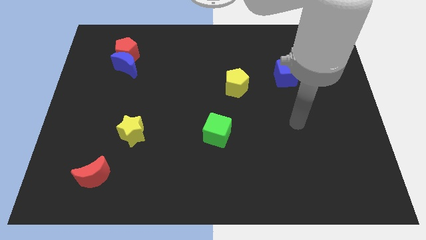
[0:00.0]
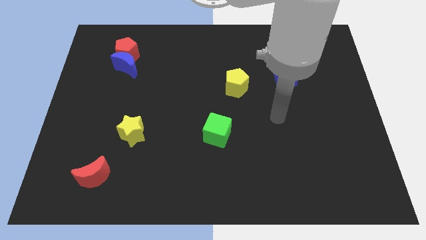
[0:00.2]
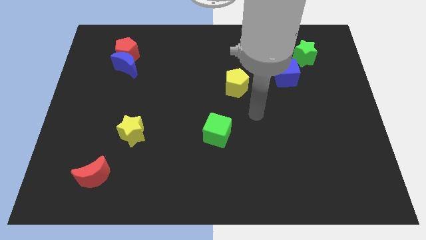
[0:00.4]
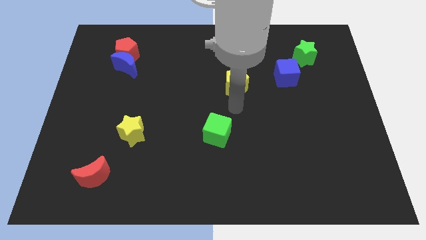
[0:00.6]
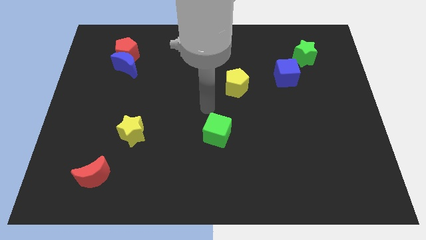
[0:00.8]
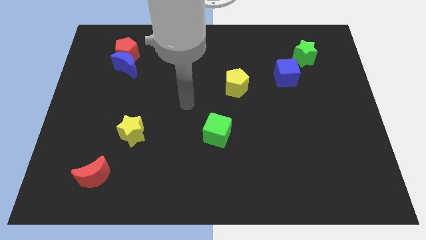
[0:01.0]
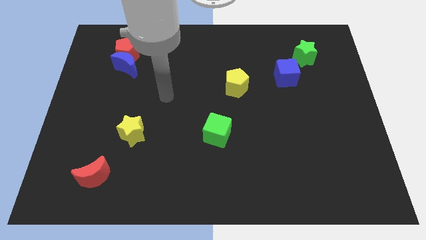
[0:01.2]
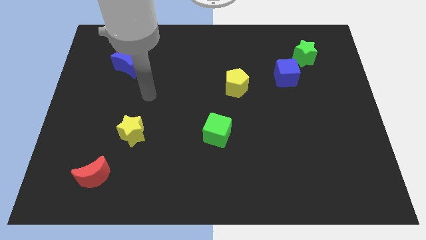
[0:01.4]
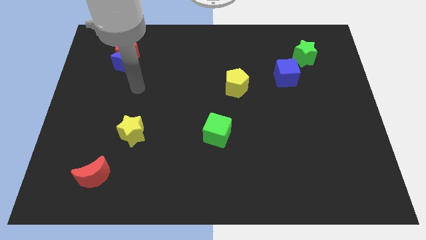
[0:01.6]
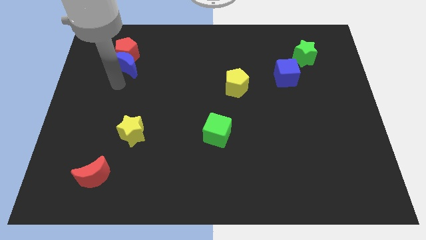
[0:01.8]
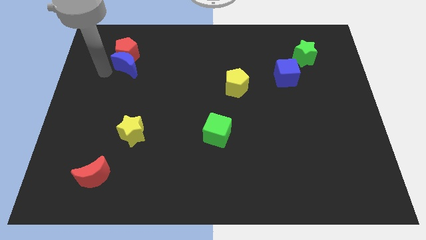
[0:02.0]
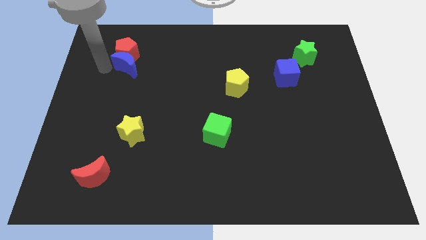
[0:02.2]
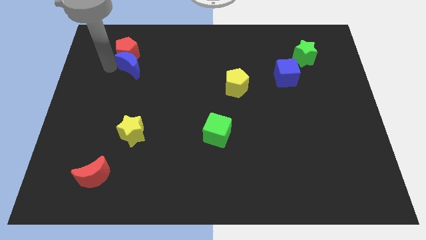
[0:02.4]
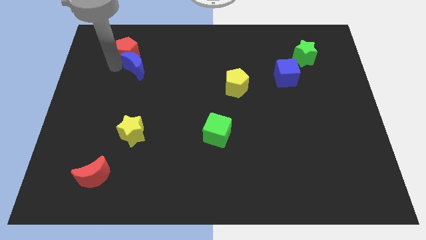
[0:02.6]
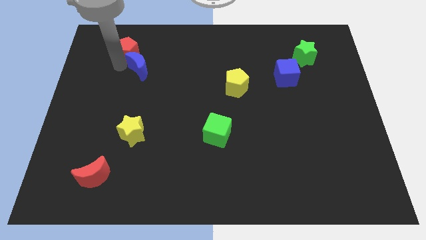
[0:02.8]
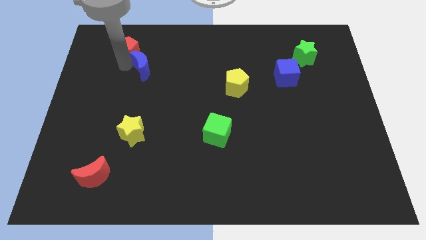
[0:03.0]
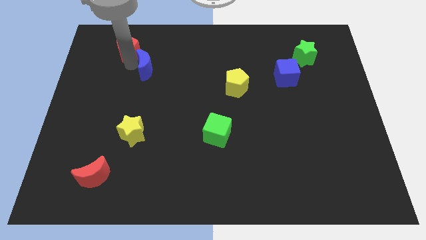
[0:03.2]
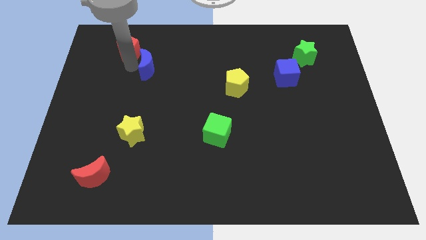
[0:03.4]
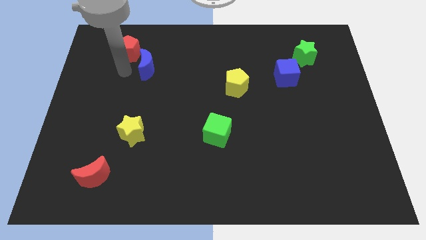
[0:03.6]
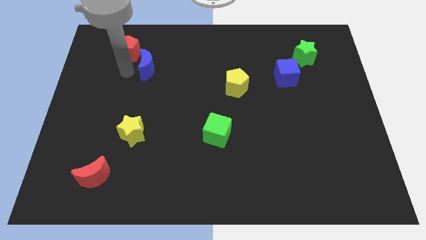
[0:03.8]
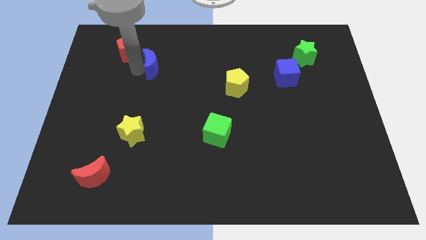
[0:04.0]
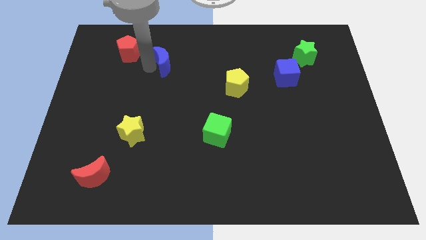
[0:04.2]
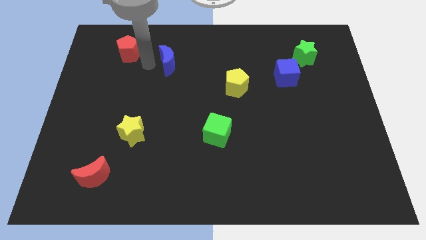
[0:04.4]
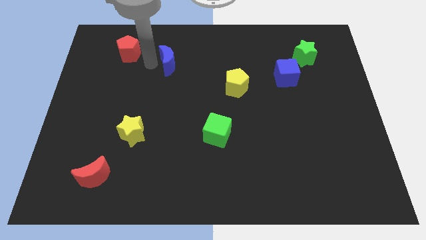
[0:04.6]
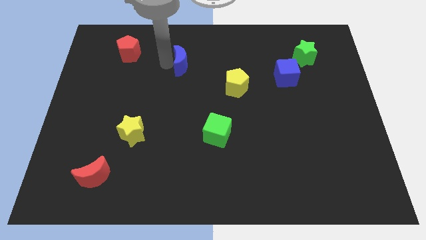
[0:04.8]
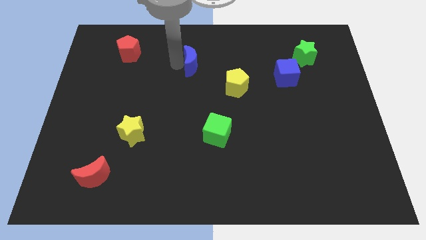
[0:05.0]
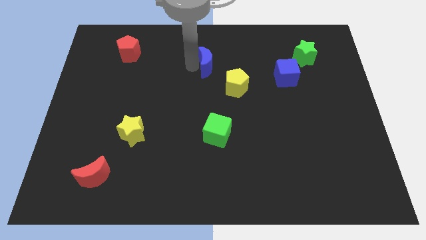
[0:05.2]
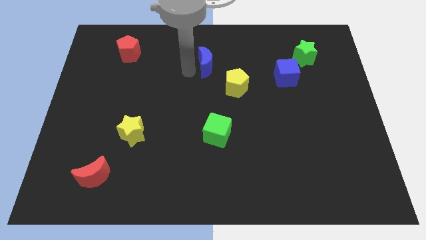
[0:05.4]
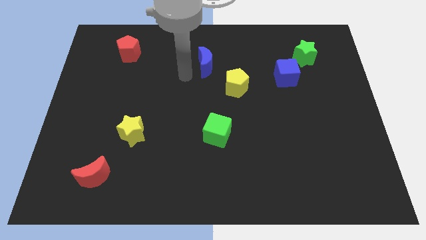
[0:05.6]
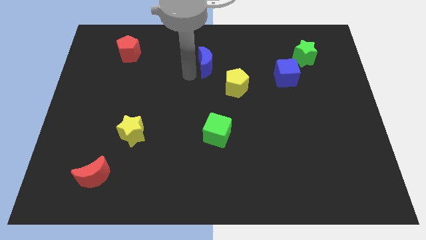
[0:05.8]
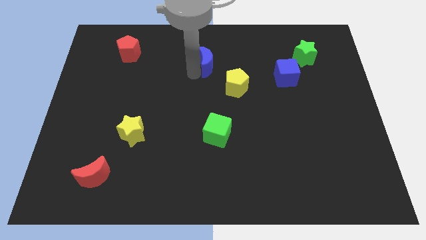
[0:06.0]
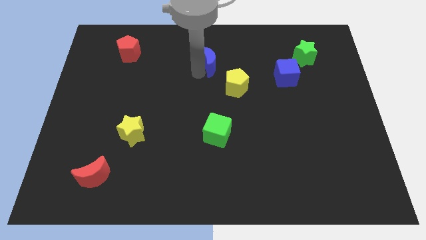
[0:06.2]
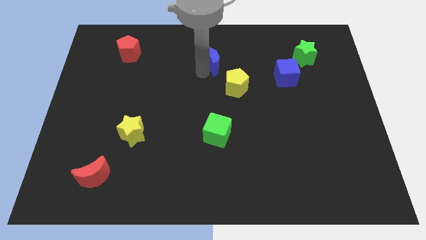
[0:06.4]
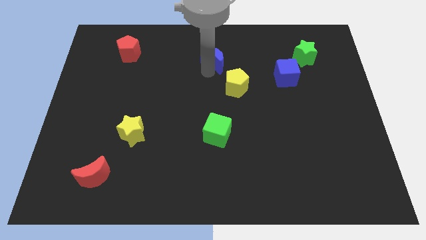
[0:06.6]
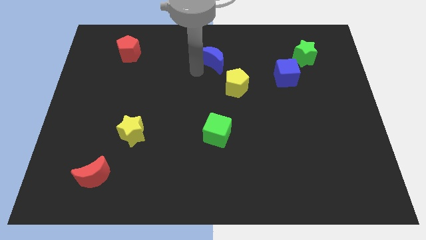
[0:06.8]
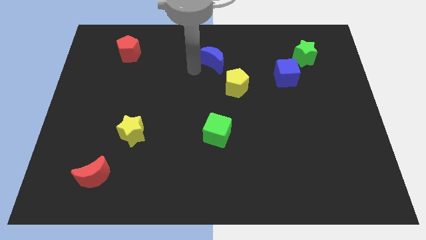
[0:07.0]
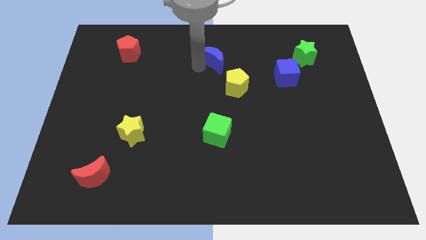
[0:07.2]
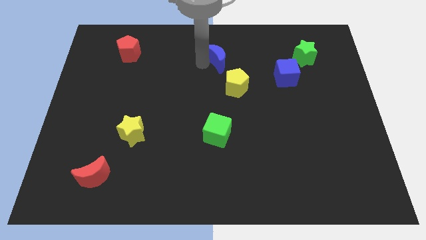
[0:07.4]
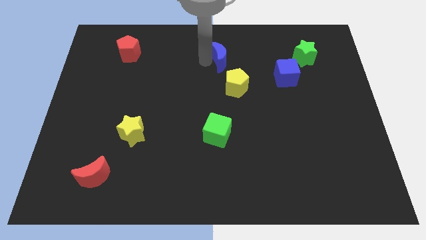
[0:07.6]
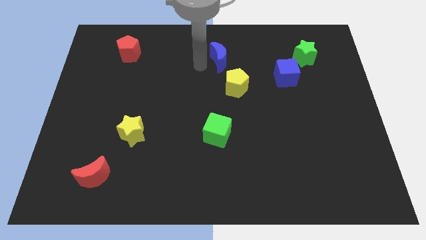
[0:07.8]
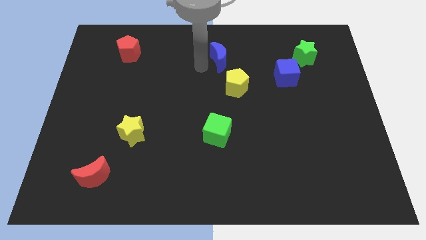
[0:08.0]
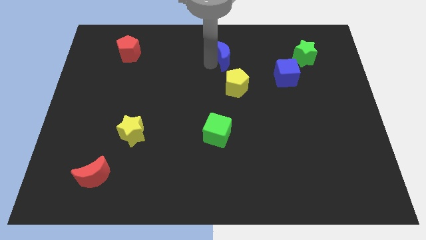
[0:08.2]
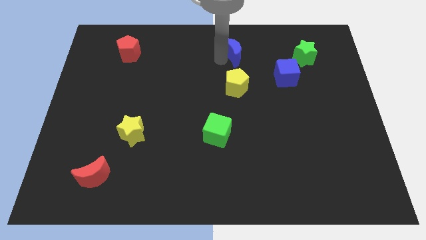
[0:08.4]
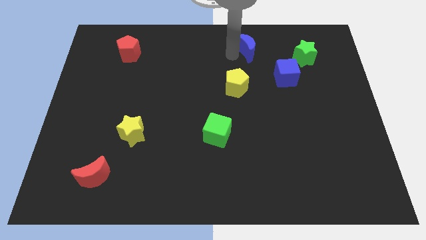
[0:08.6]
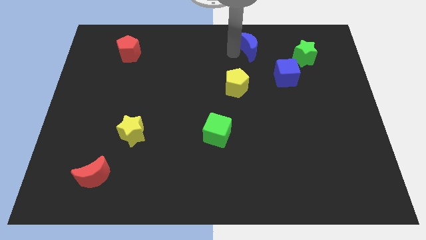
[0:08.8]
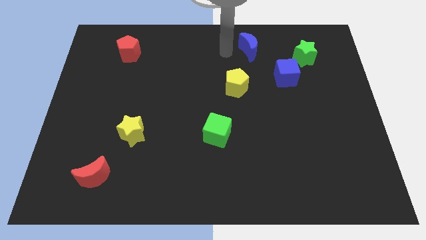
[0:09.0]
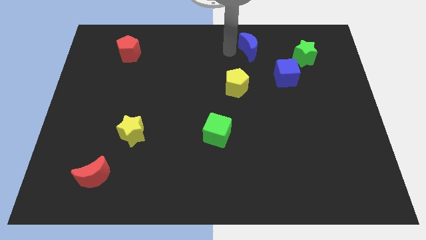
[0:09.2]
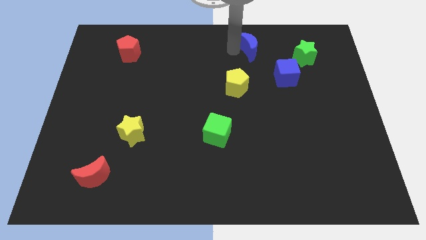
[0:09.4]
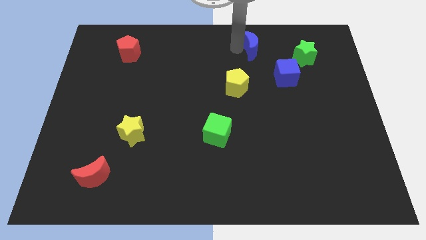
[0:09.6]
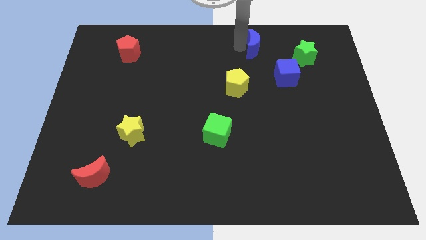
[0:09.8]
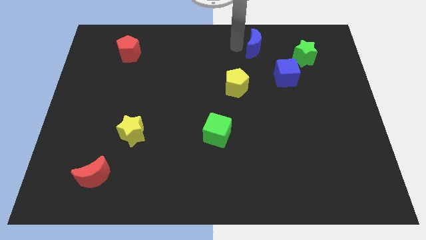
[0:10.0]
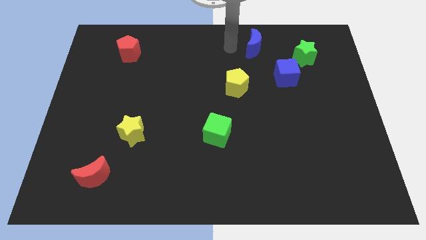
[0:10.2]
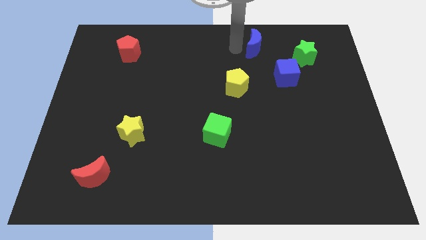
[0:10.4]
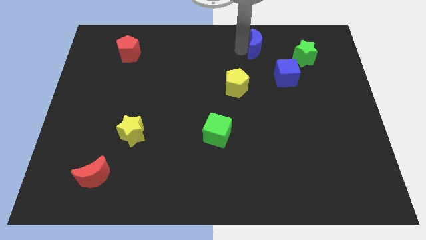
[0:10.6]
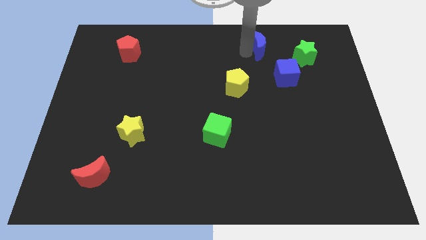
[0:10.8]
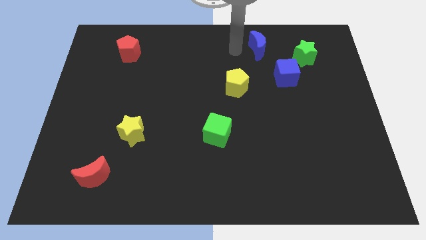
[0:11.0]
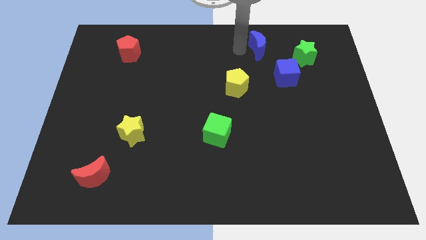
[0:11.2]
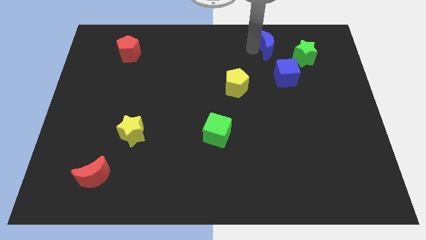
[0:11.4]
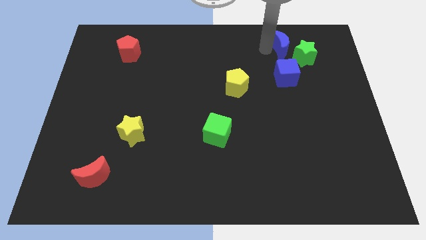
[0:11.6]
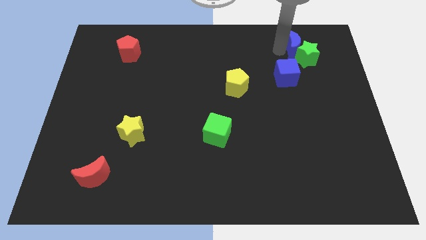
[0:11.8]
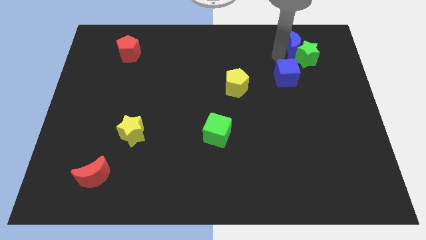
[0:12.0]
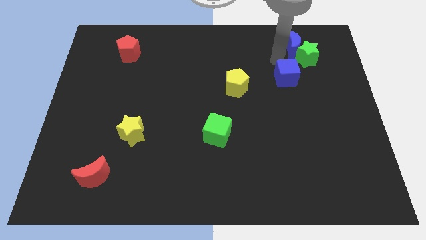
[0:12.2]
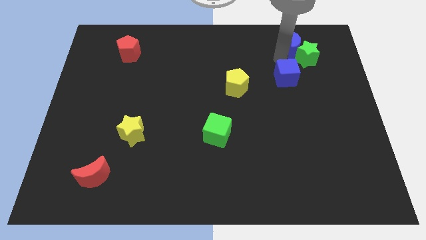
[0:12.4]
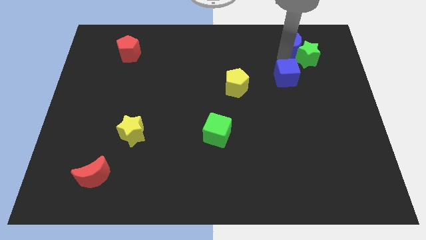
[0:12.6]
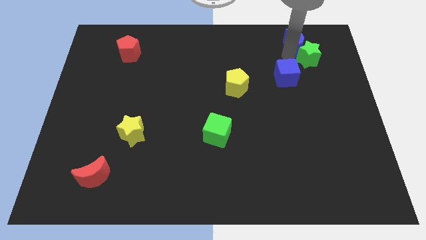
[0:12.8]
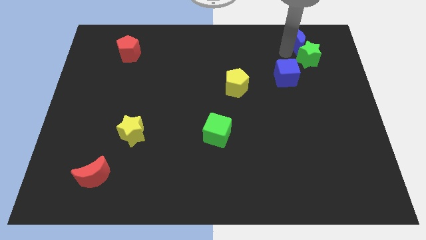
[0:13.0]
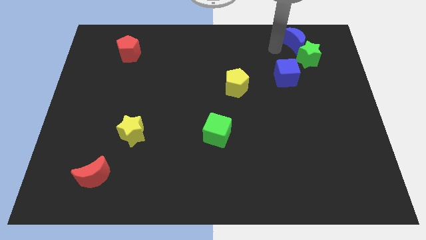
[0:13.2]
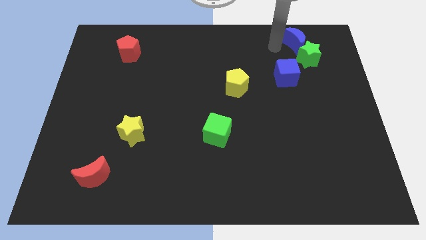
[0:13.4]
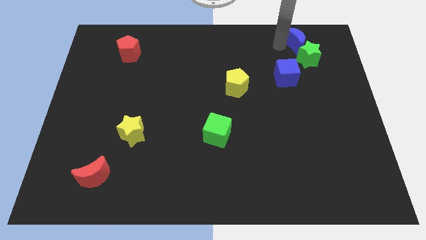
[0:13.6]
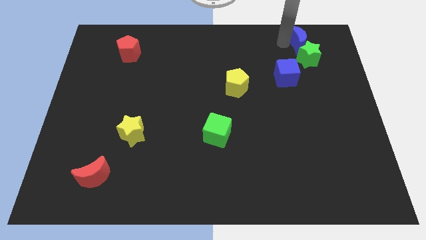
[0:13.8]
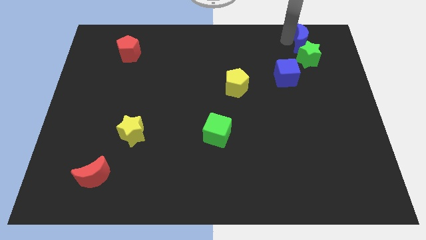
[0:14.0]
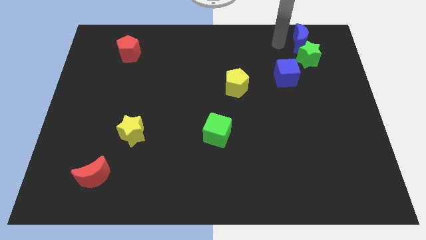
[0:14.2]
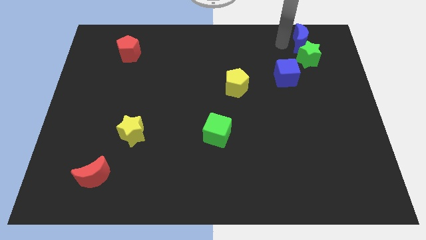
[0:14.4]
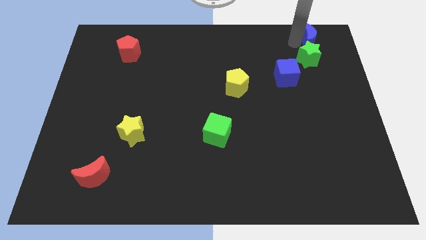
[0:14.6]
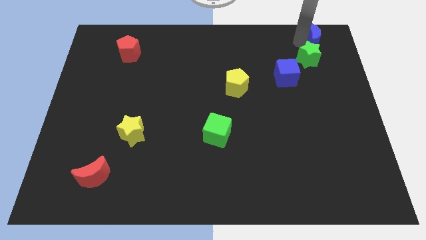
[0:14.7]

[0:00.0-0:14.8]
move the blue moon to the top right of the board
